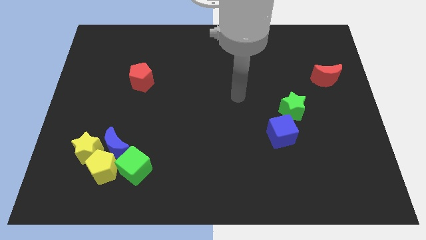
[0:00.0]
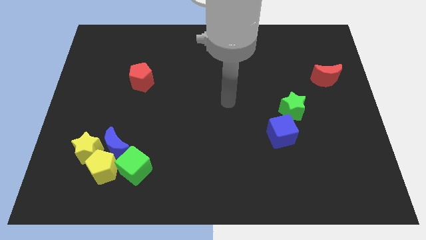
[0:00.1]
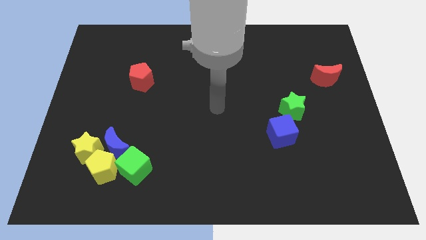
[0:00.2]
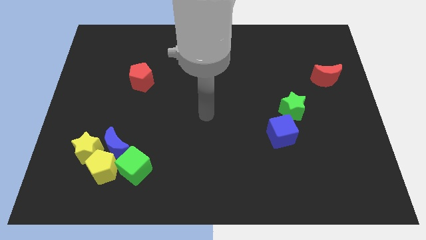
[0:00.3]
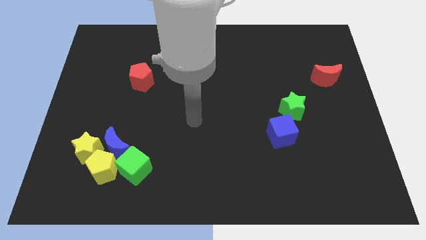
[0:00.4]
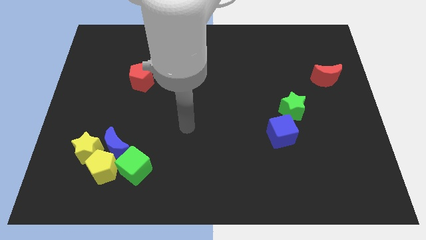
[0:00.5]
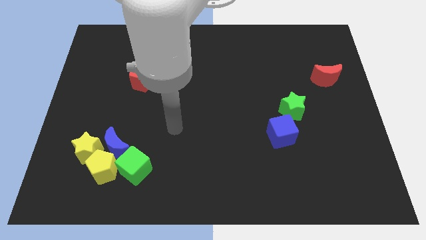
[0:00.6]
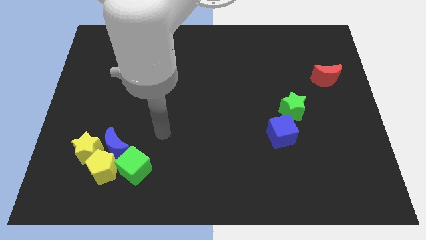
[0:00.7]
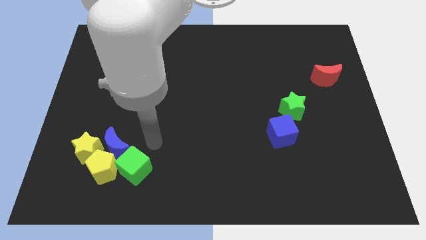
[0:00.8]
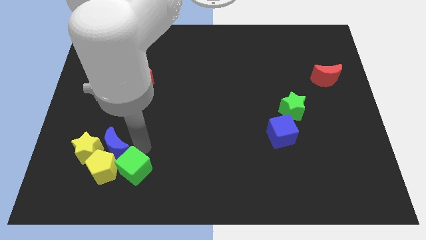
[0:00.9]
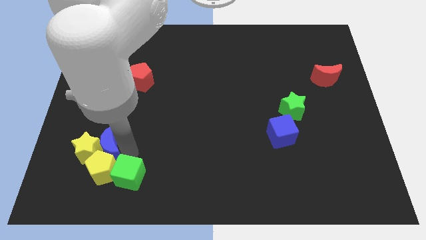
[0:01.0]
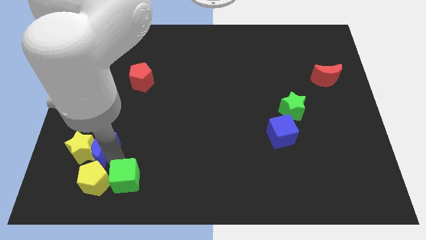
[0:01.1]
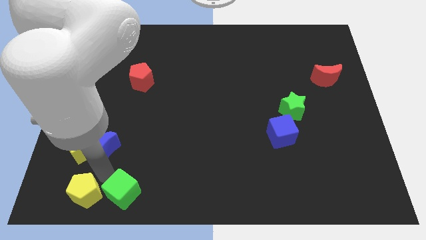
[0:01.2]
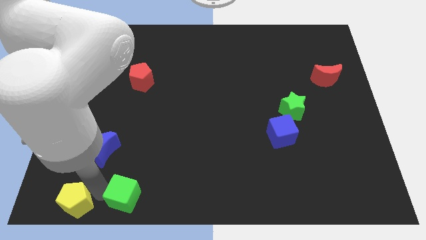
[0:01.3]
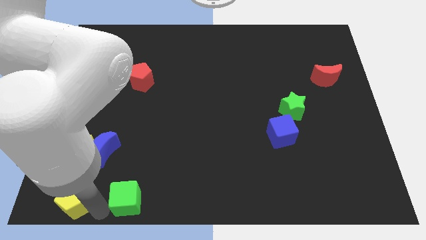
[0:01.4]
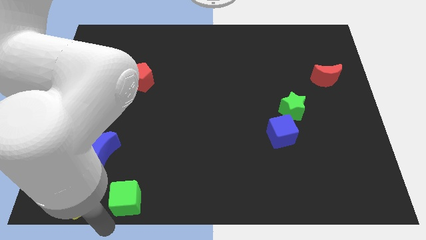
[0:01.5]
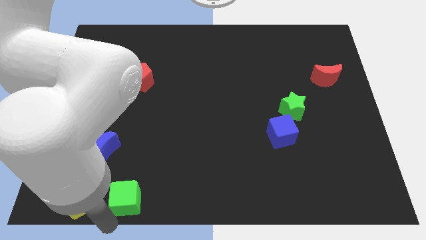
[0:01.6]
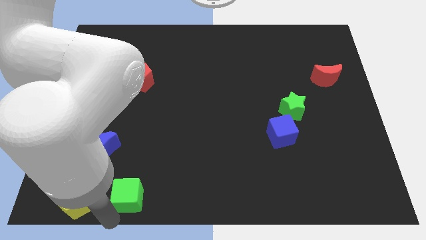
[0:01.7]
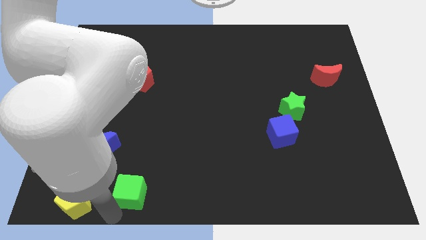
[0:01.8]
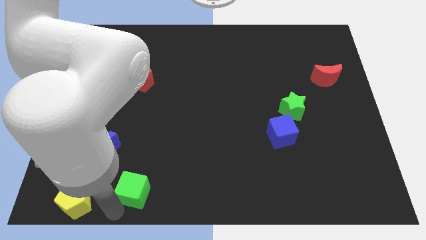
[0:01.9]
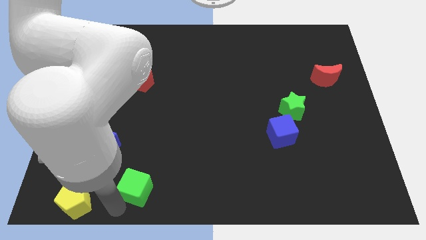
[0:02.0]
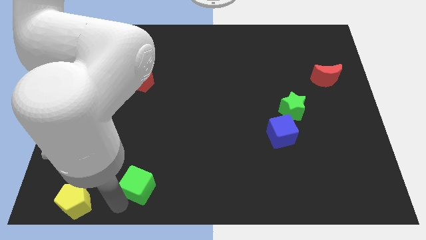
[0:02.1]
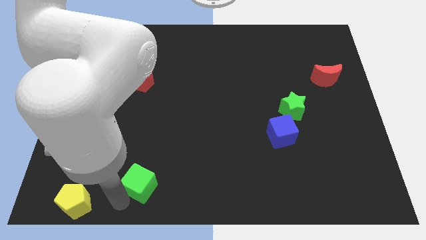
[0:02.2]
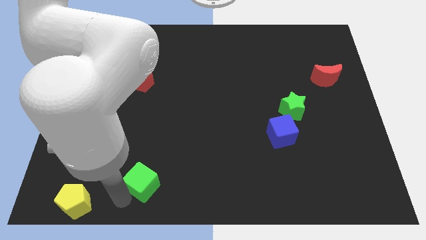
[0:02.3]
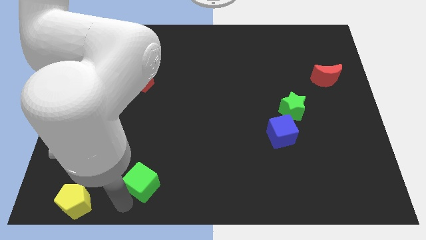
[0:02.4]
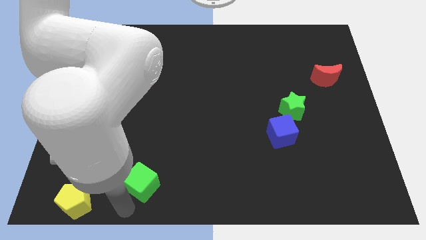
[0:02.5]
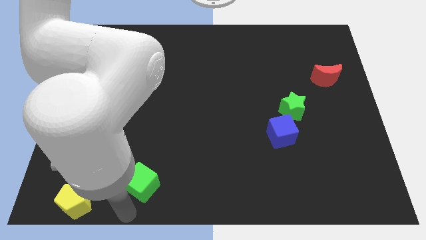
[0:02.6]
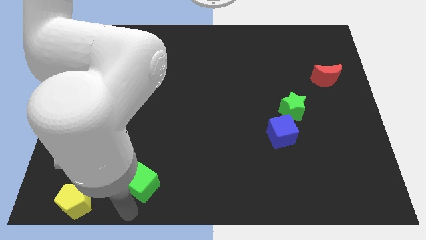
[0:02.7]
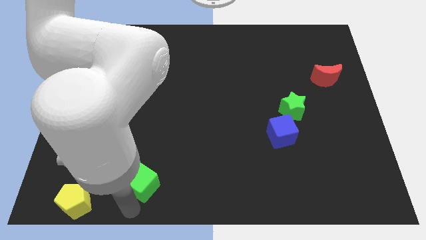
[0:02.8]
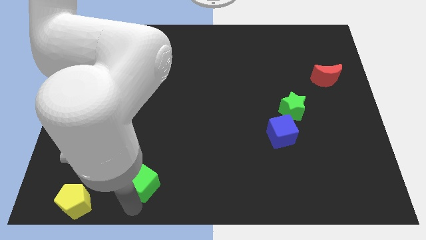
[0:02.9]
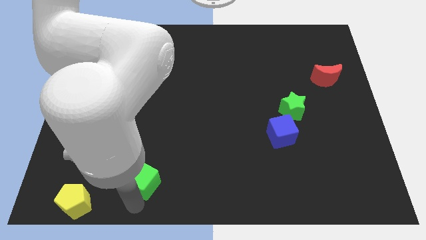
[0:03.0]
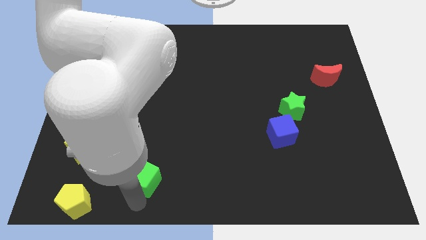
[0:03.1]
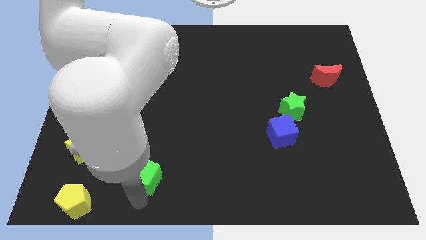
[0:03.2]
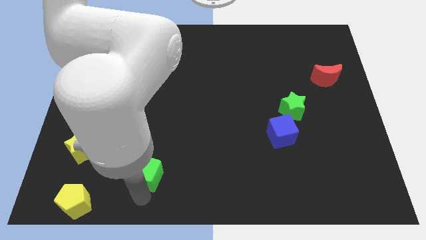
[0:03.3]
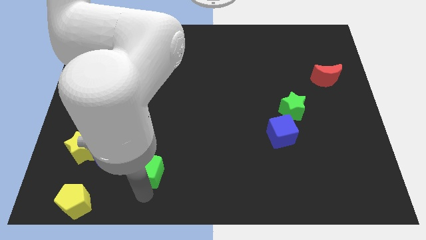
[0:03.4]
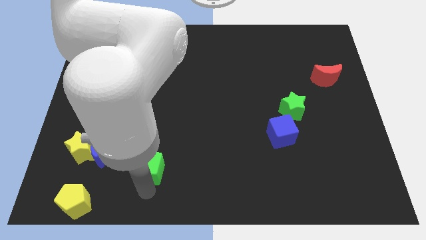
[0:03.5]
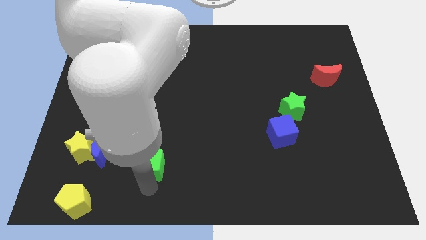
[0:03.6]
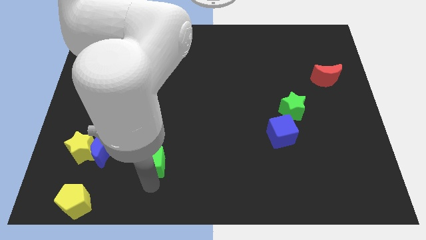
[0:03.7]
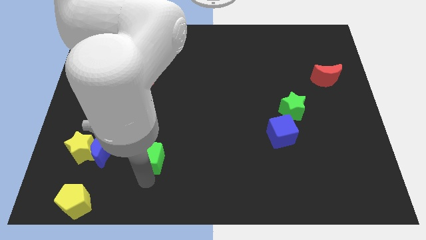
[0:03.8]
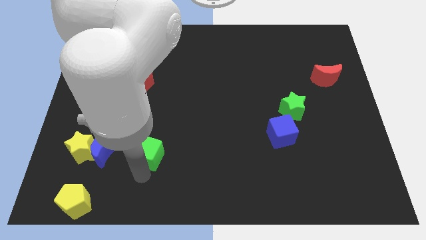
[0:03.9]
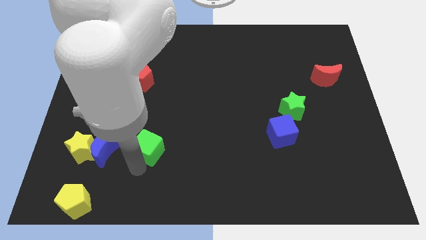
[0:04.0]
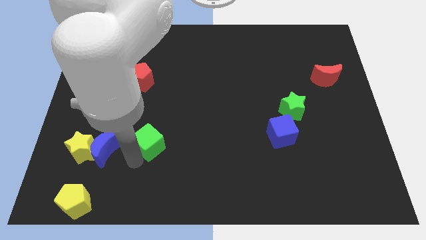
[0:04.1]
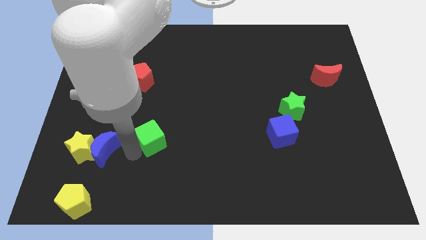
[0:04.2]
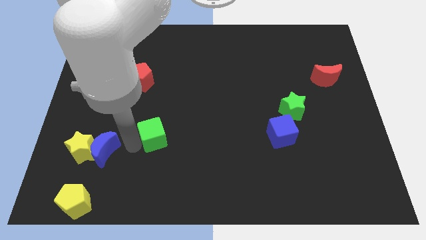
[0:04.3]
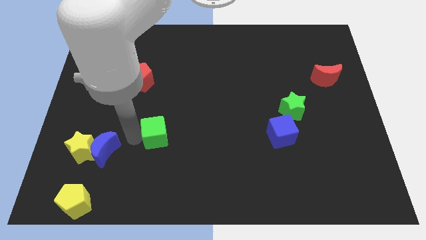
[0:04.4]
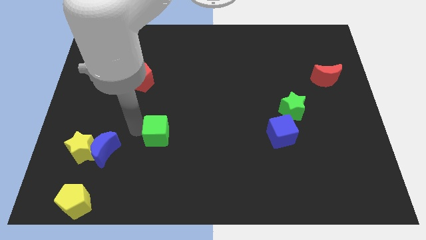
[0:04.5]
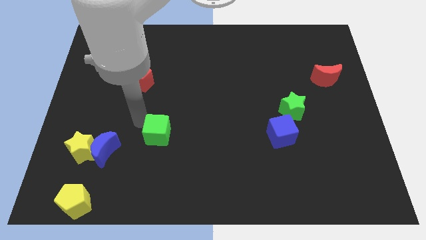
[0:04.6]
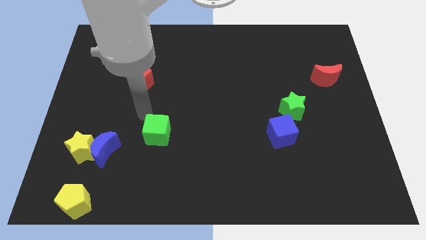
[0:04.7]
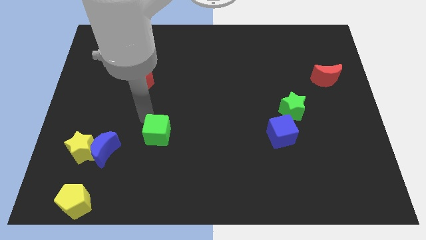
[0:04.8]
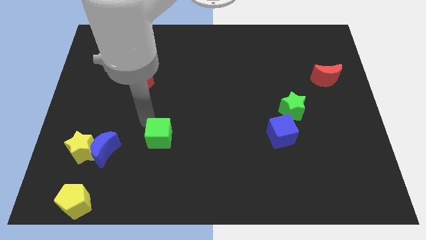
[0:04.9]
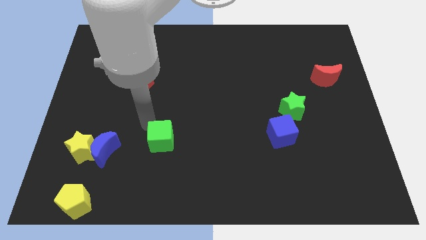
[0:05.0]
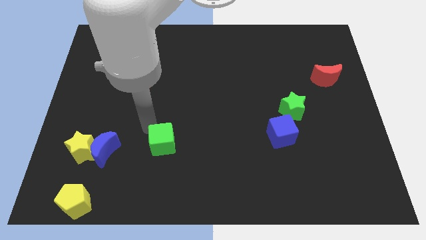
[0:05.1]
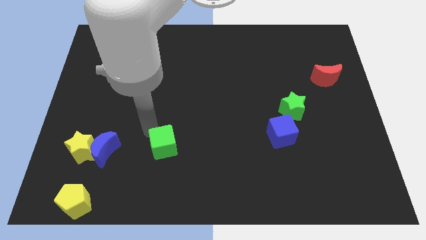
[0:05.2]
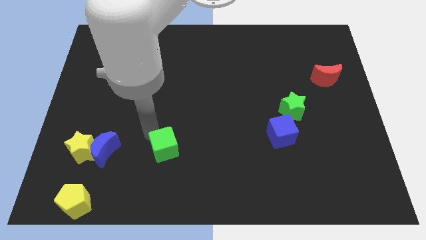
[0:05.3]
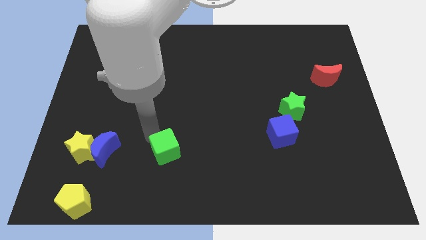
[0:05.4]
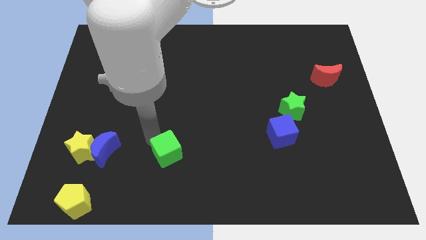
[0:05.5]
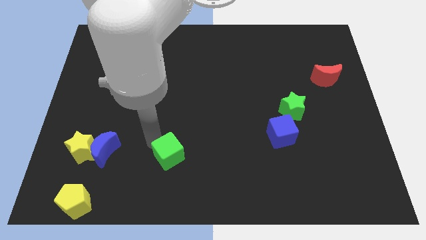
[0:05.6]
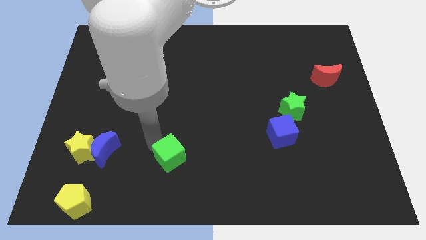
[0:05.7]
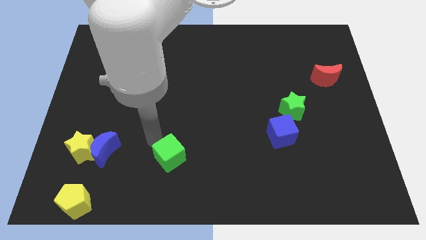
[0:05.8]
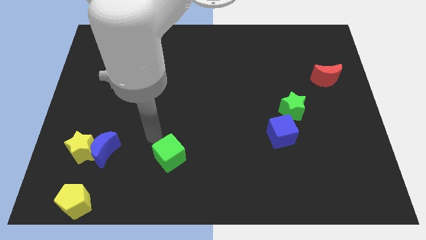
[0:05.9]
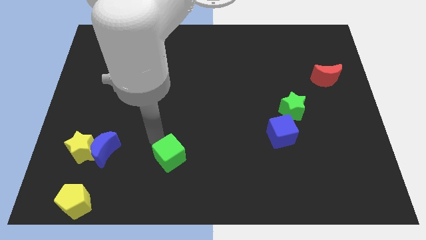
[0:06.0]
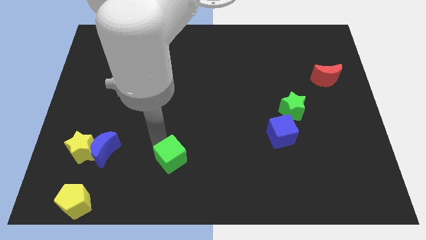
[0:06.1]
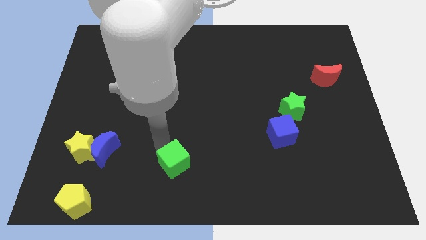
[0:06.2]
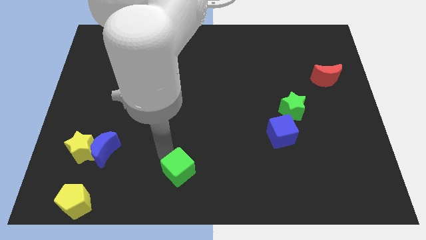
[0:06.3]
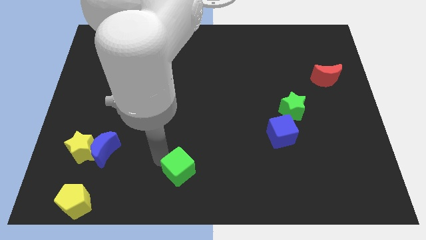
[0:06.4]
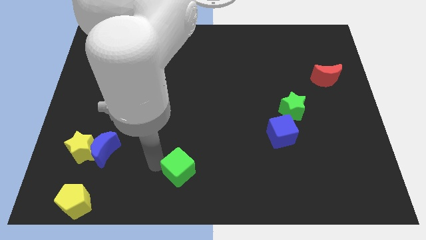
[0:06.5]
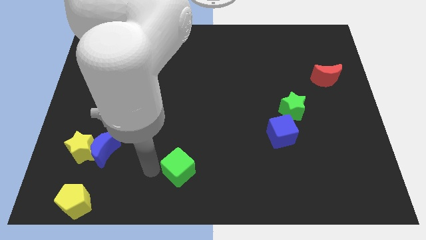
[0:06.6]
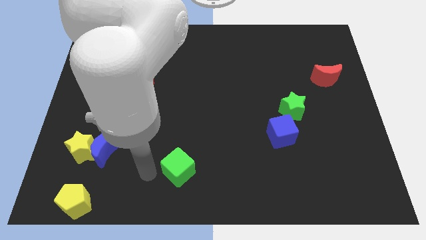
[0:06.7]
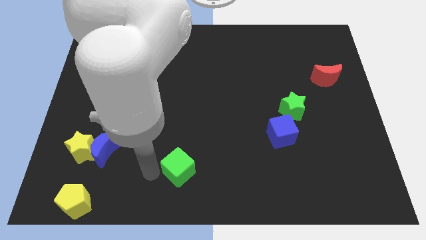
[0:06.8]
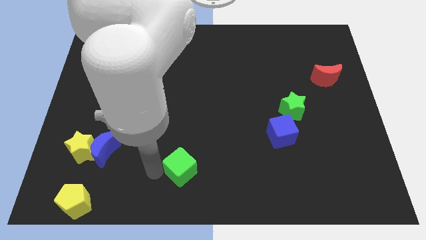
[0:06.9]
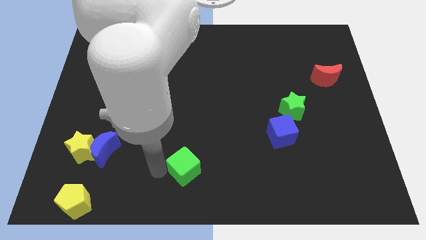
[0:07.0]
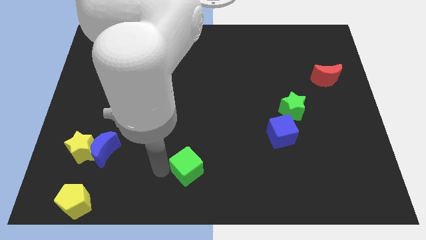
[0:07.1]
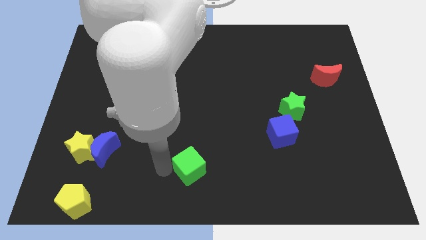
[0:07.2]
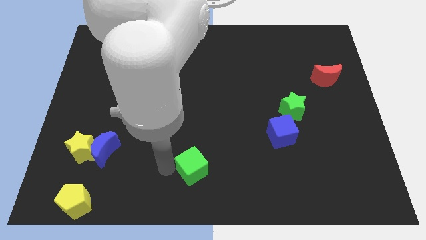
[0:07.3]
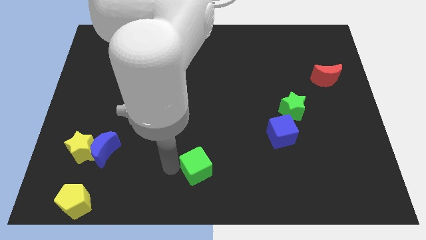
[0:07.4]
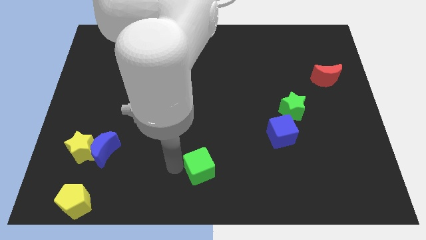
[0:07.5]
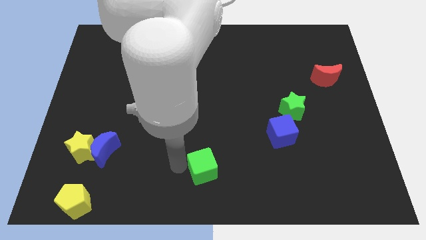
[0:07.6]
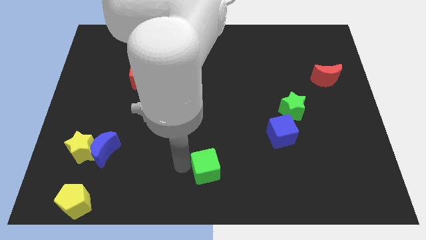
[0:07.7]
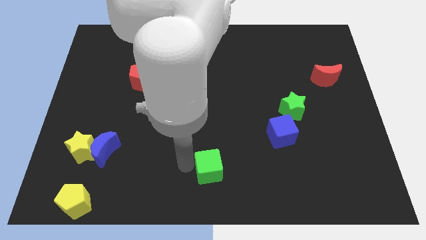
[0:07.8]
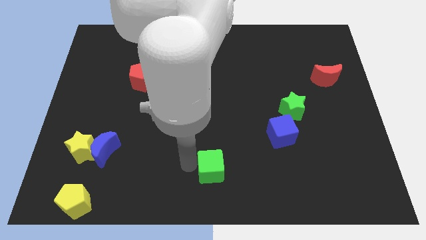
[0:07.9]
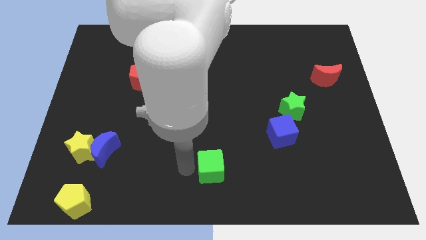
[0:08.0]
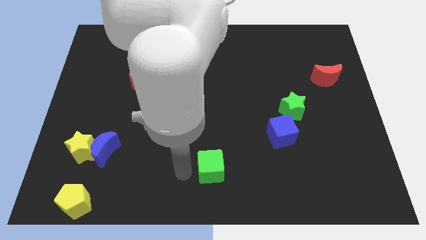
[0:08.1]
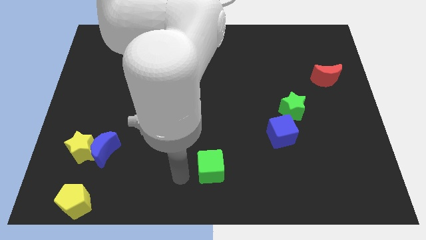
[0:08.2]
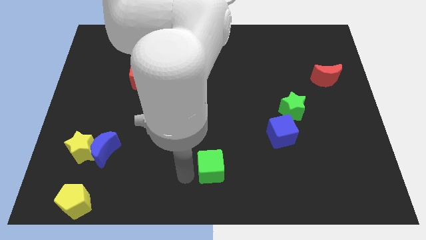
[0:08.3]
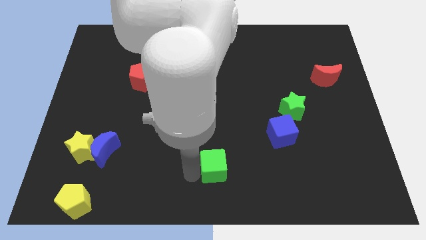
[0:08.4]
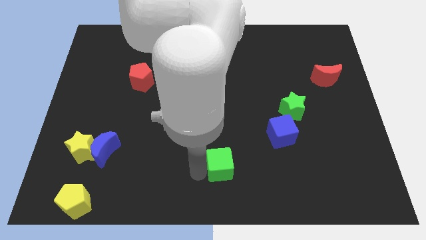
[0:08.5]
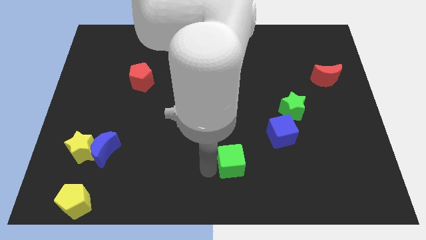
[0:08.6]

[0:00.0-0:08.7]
slide the green cube to the right
